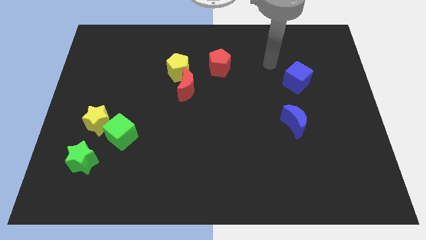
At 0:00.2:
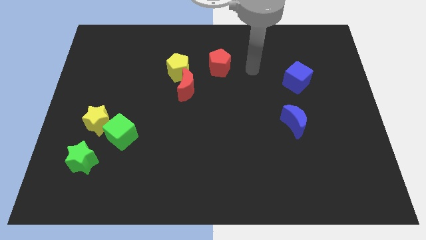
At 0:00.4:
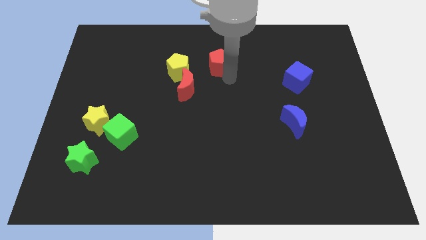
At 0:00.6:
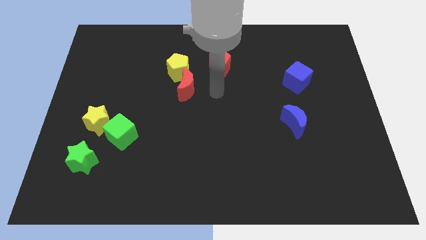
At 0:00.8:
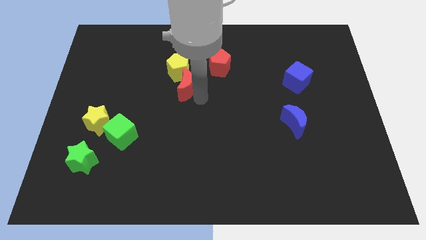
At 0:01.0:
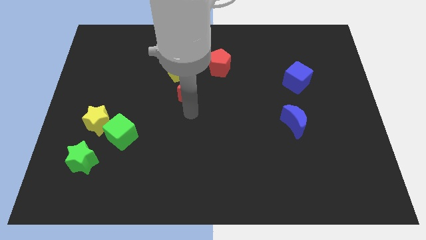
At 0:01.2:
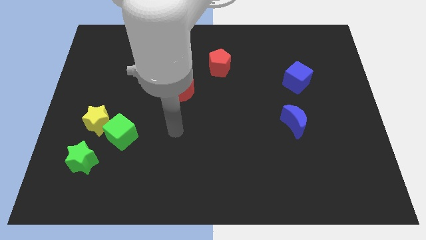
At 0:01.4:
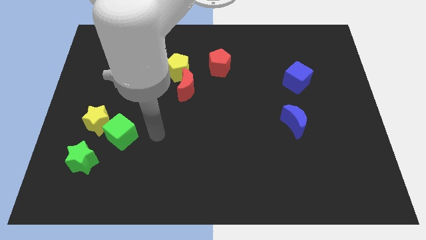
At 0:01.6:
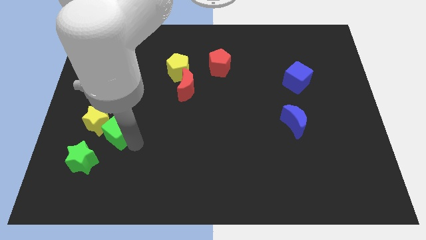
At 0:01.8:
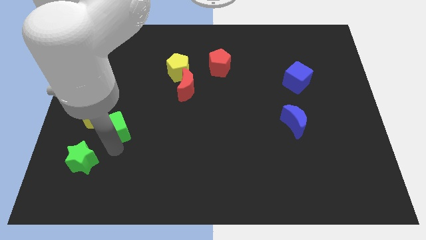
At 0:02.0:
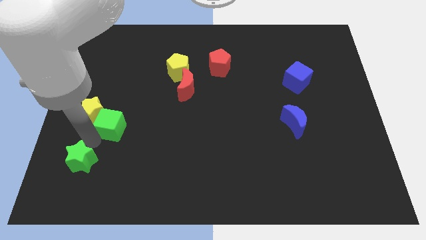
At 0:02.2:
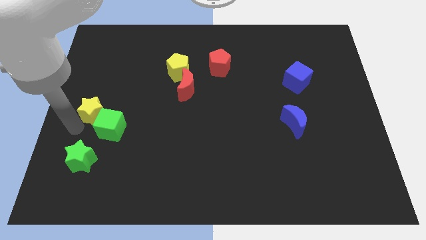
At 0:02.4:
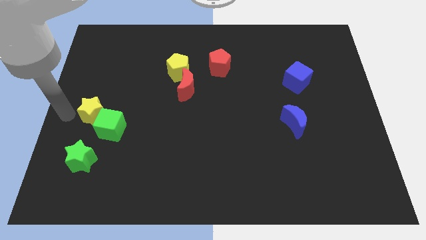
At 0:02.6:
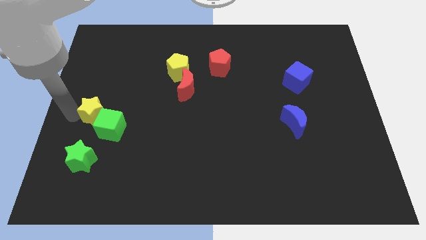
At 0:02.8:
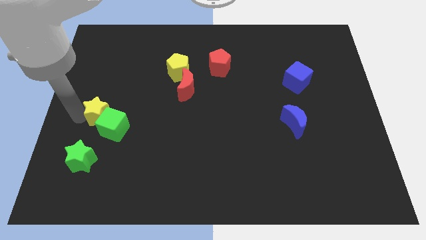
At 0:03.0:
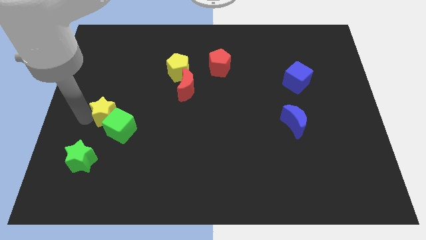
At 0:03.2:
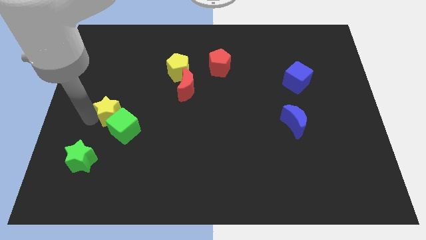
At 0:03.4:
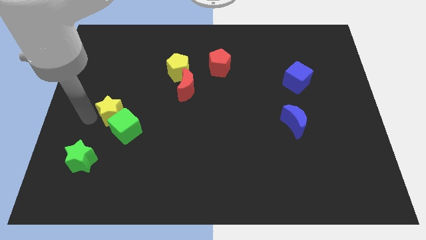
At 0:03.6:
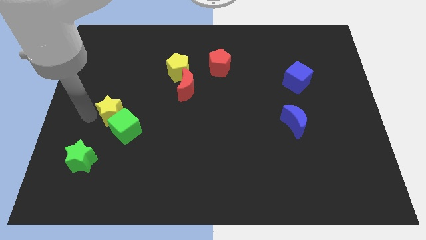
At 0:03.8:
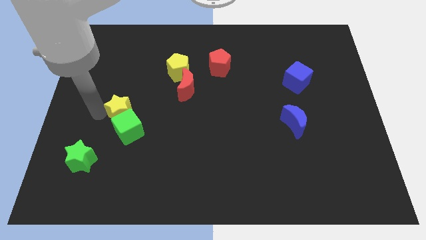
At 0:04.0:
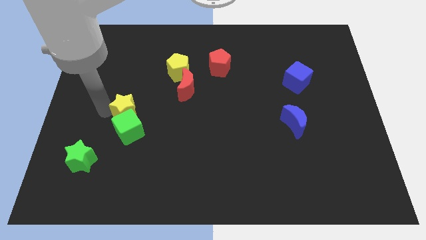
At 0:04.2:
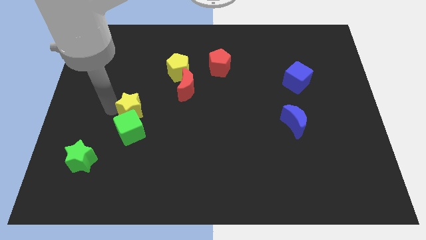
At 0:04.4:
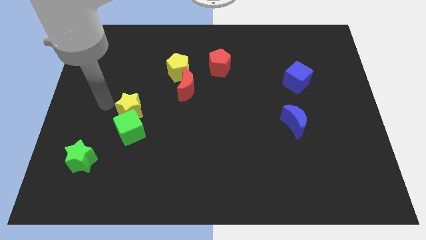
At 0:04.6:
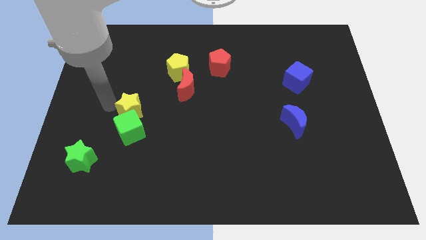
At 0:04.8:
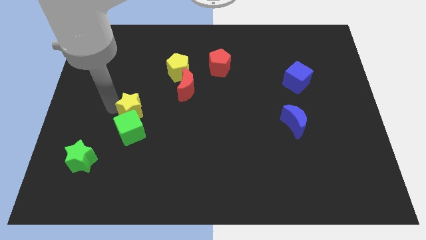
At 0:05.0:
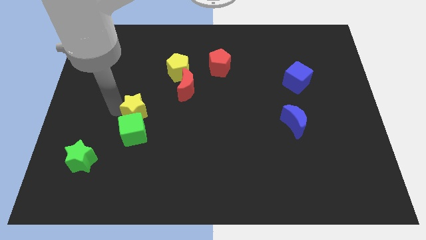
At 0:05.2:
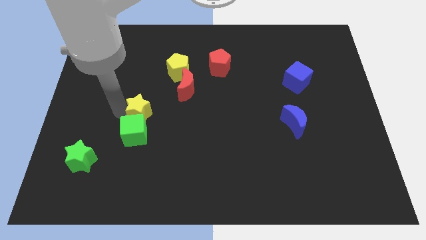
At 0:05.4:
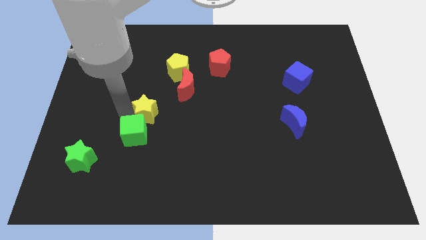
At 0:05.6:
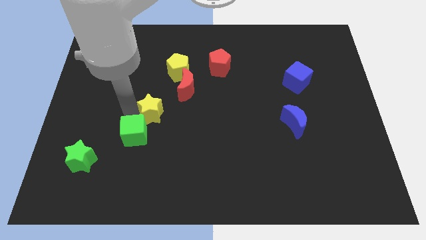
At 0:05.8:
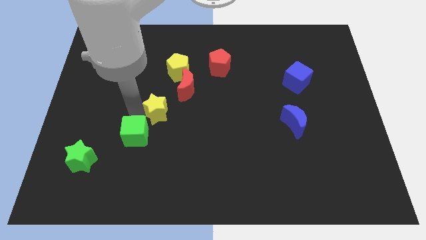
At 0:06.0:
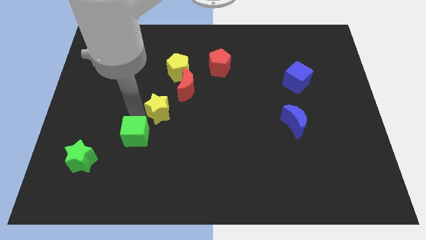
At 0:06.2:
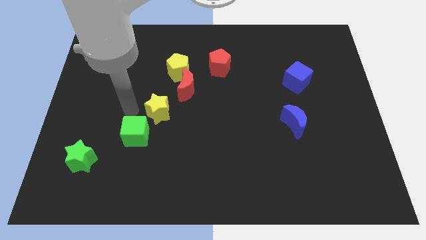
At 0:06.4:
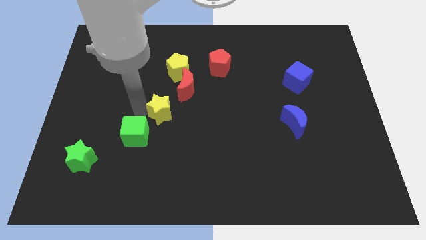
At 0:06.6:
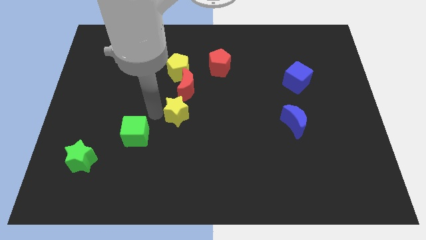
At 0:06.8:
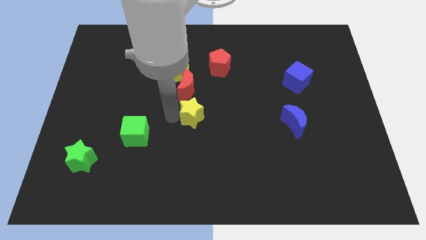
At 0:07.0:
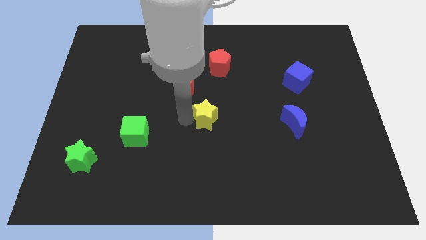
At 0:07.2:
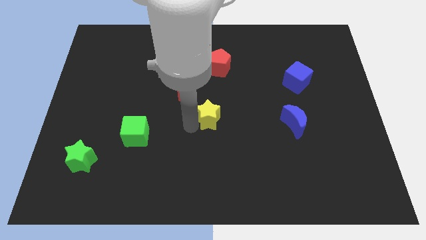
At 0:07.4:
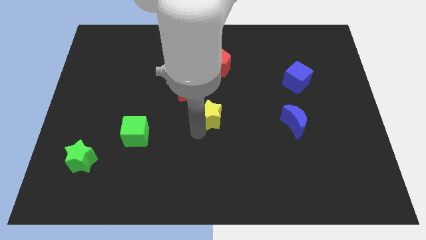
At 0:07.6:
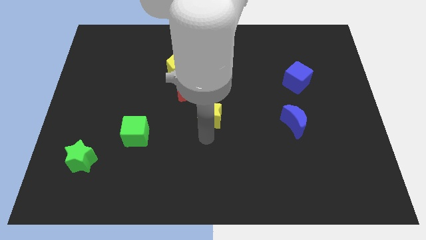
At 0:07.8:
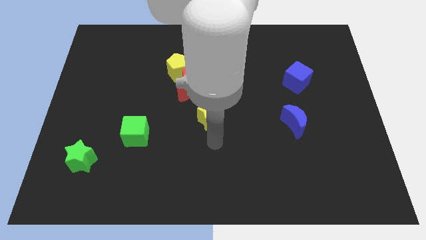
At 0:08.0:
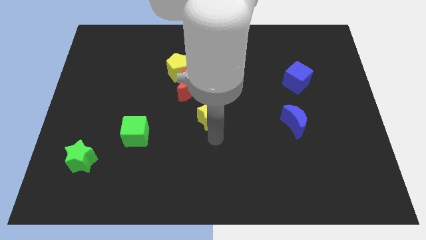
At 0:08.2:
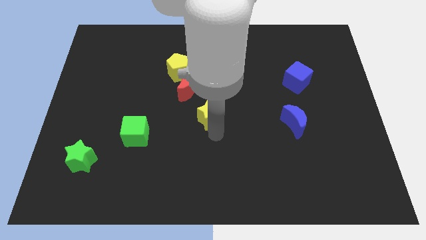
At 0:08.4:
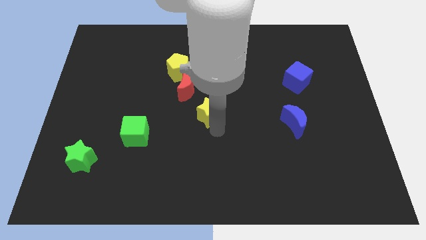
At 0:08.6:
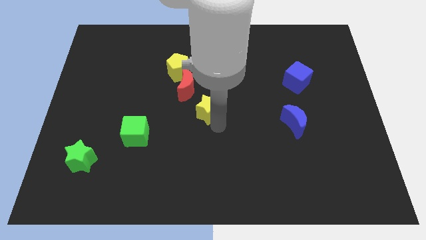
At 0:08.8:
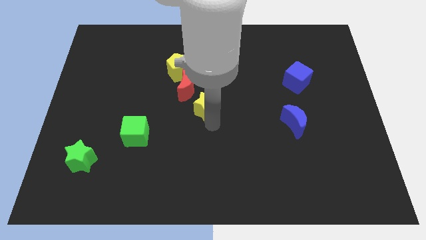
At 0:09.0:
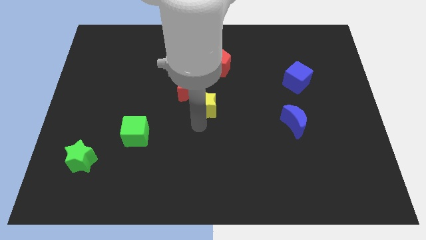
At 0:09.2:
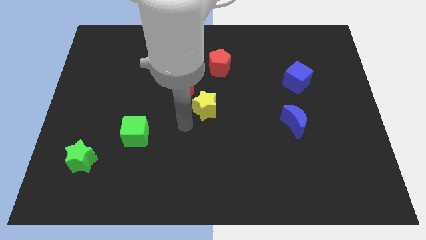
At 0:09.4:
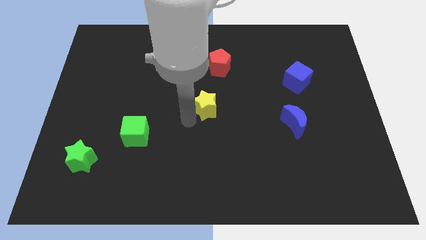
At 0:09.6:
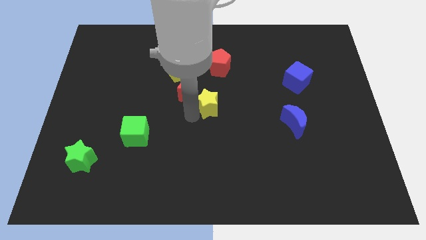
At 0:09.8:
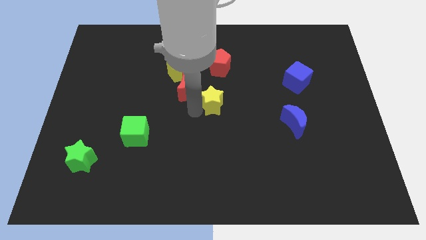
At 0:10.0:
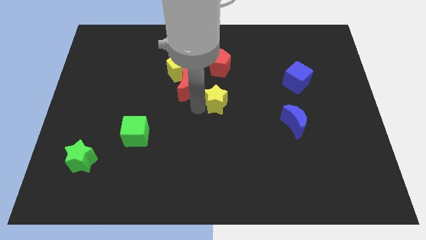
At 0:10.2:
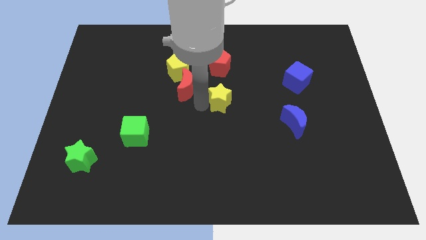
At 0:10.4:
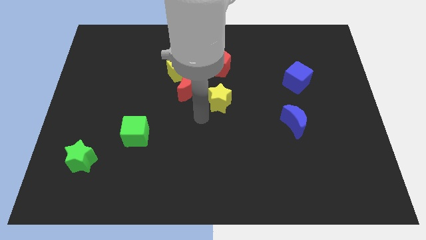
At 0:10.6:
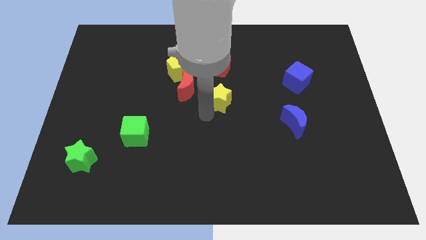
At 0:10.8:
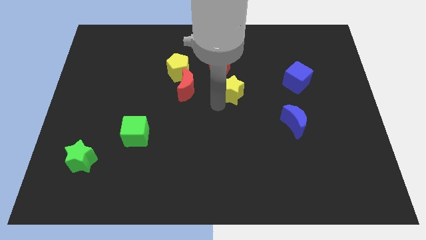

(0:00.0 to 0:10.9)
put the yellow star diagonally down and to the right of the red pentagon

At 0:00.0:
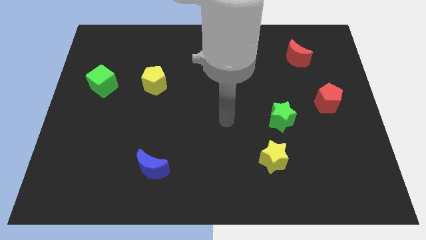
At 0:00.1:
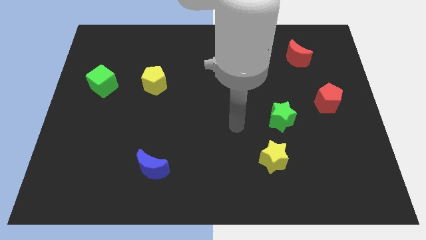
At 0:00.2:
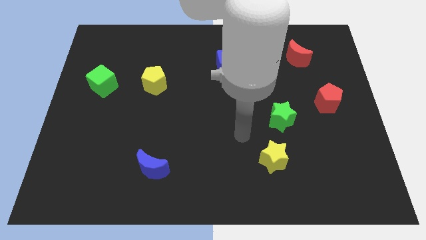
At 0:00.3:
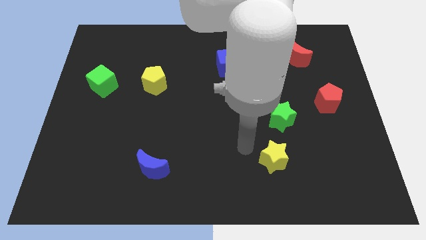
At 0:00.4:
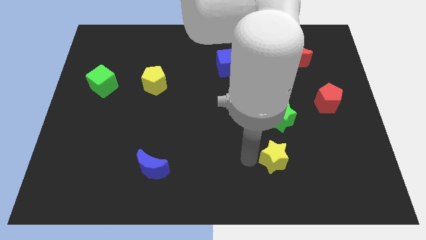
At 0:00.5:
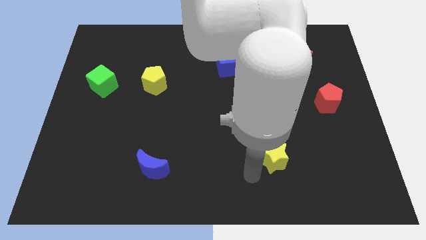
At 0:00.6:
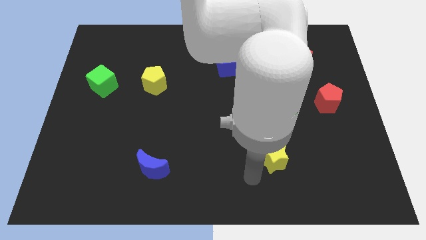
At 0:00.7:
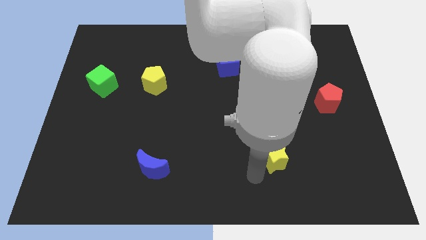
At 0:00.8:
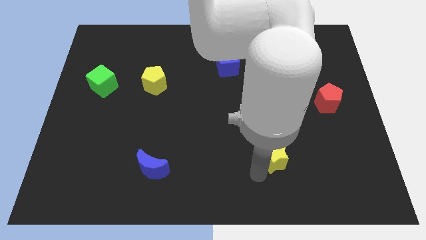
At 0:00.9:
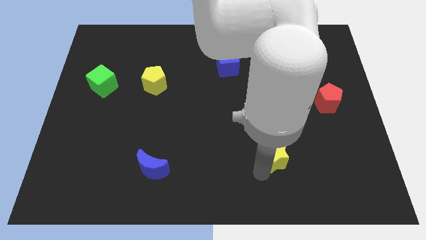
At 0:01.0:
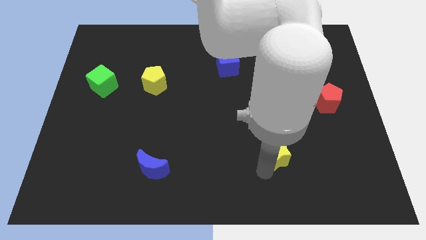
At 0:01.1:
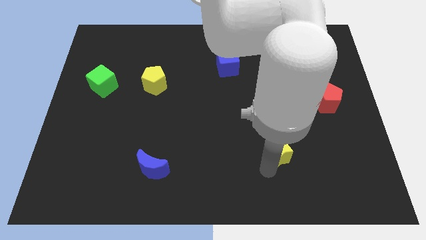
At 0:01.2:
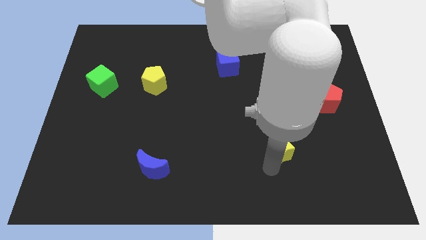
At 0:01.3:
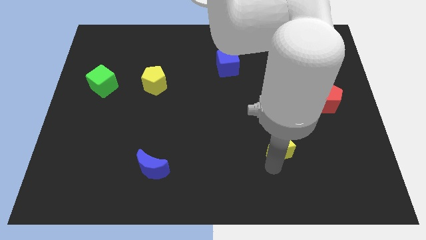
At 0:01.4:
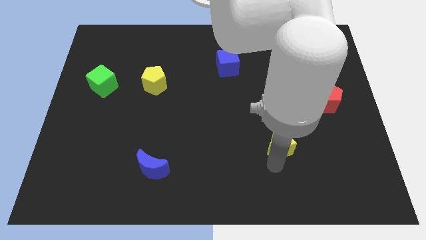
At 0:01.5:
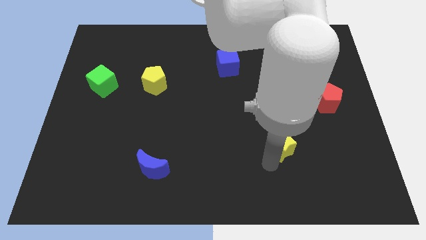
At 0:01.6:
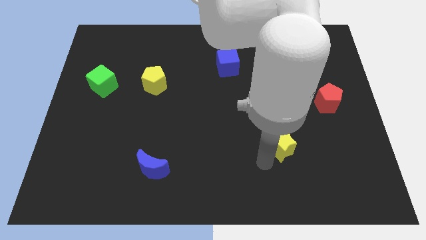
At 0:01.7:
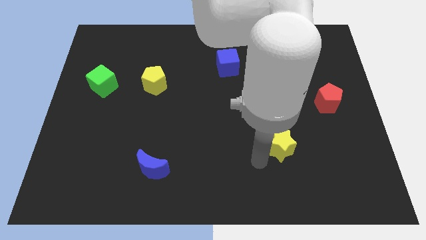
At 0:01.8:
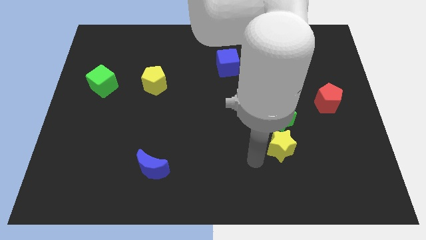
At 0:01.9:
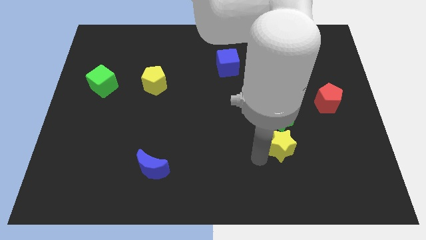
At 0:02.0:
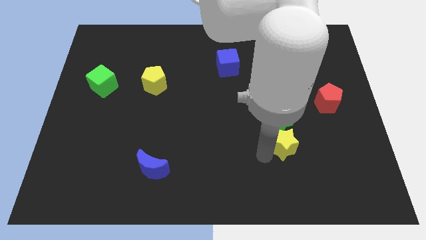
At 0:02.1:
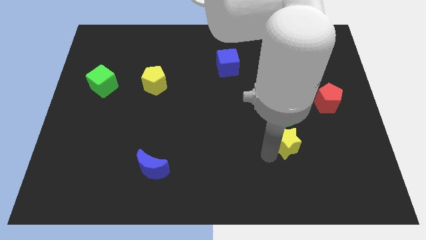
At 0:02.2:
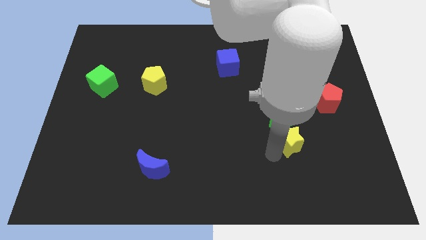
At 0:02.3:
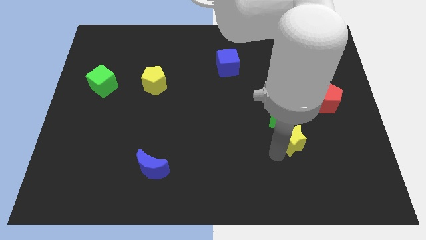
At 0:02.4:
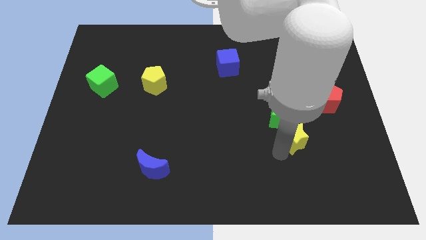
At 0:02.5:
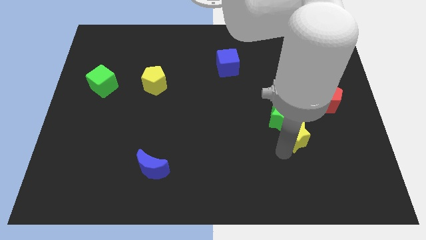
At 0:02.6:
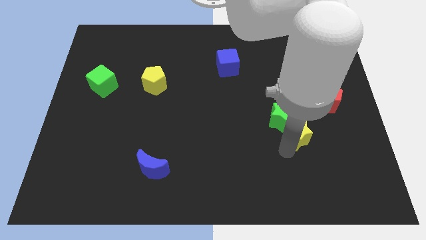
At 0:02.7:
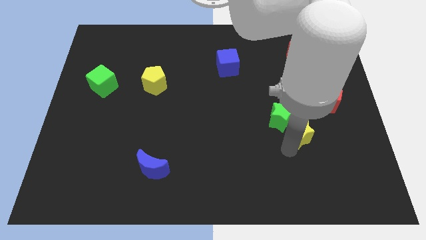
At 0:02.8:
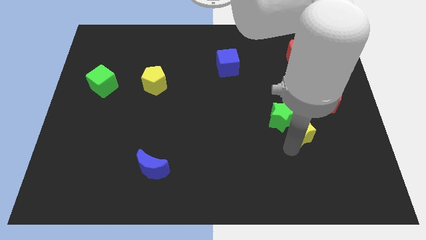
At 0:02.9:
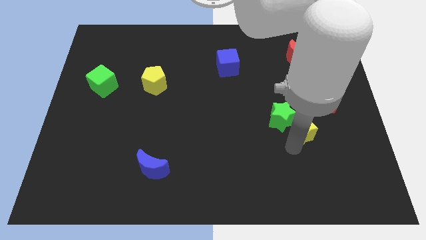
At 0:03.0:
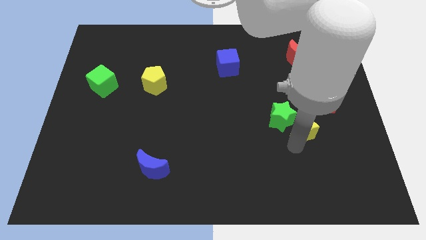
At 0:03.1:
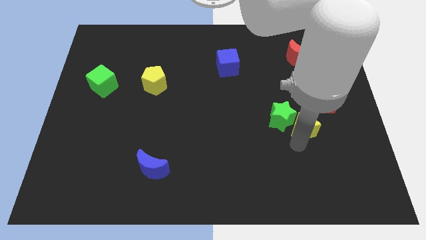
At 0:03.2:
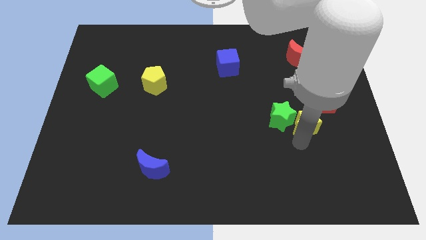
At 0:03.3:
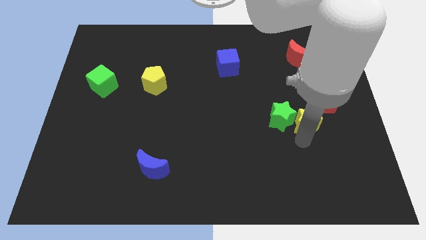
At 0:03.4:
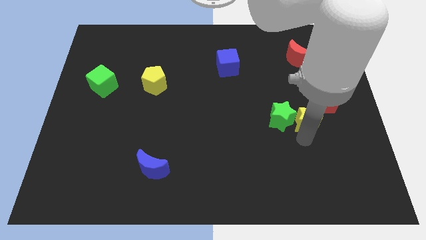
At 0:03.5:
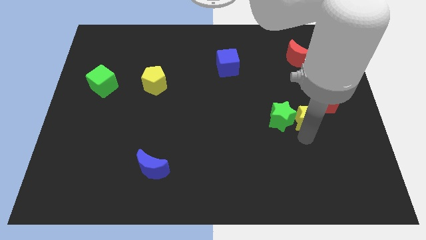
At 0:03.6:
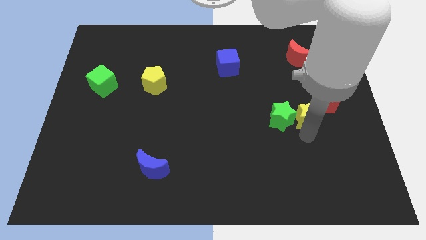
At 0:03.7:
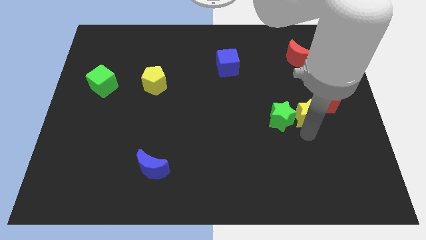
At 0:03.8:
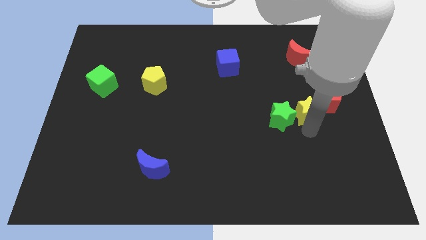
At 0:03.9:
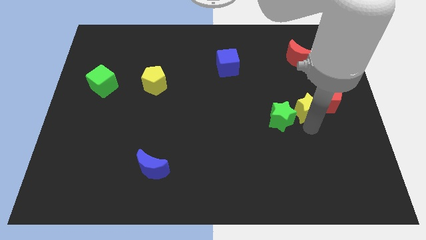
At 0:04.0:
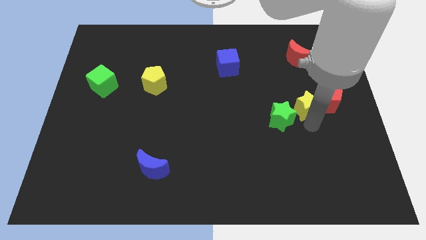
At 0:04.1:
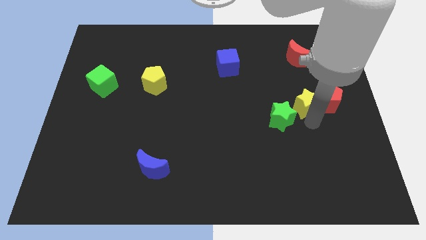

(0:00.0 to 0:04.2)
slide the yellow star to the bottom side of the red moon
